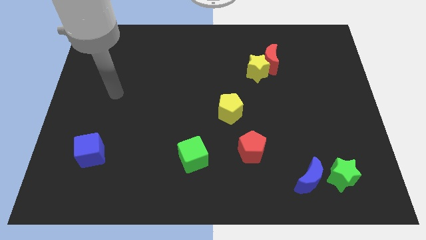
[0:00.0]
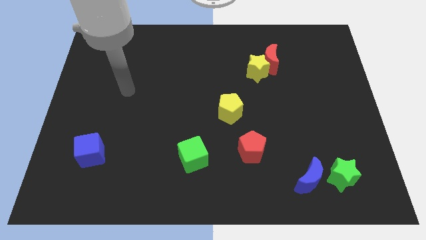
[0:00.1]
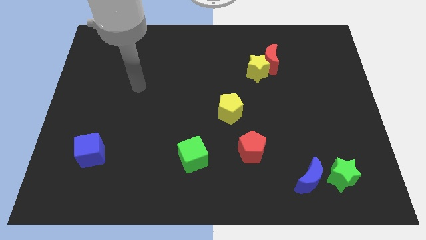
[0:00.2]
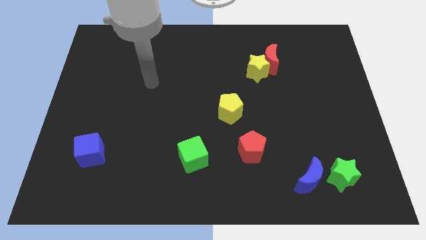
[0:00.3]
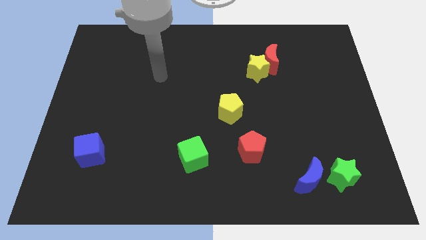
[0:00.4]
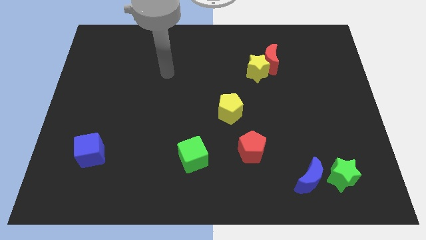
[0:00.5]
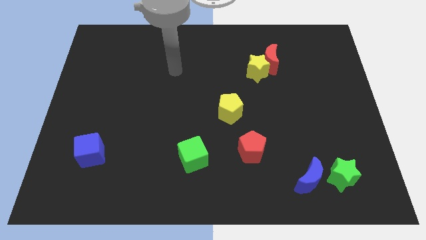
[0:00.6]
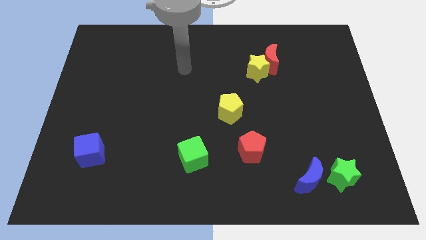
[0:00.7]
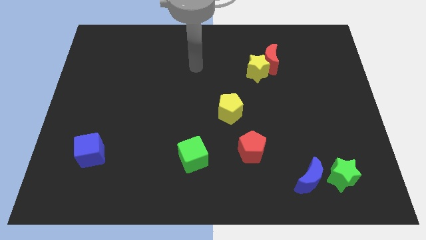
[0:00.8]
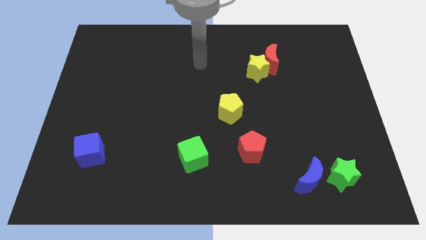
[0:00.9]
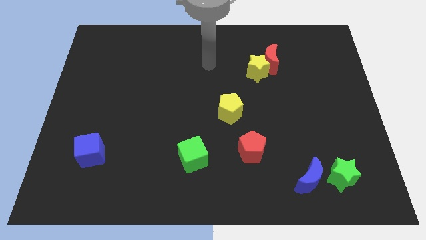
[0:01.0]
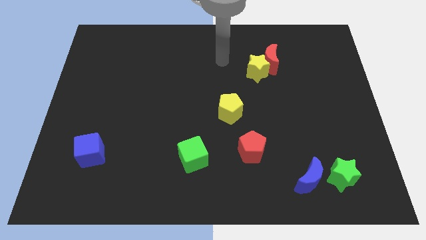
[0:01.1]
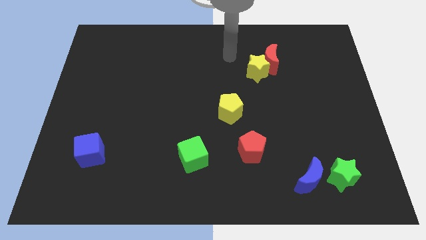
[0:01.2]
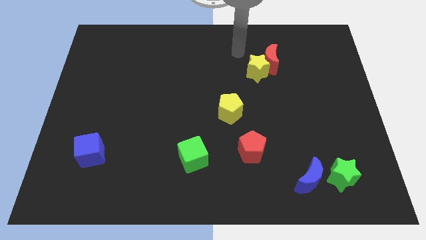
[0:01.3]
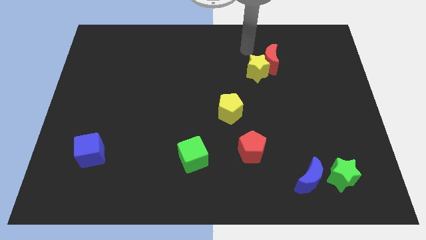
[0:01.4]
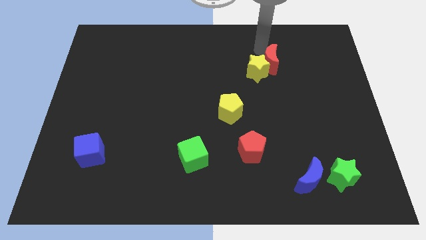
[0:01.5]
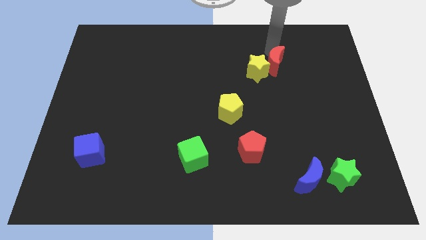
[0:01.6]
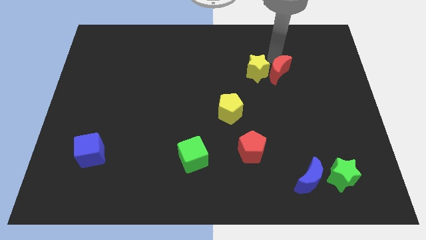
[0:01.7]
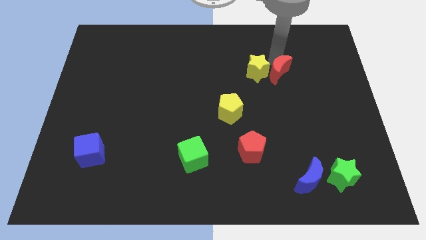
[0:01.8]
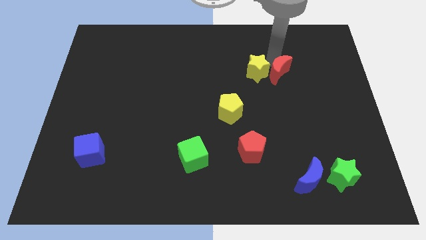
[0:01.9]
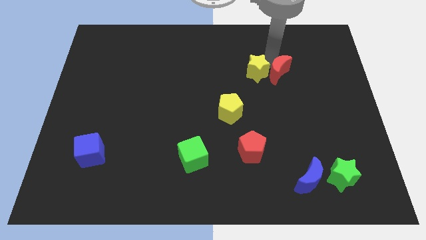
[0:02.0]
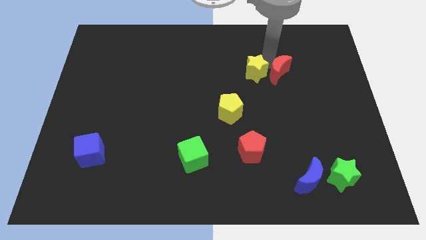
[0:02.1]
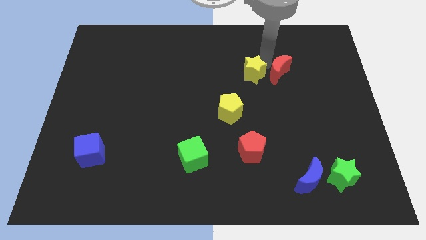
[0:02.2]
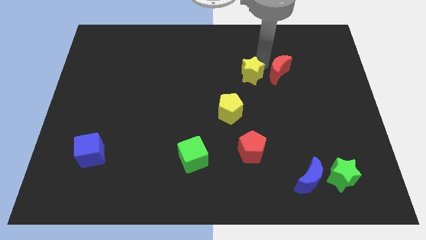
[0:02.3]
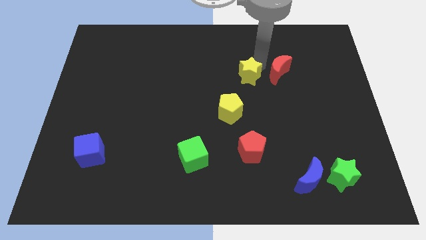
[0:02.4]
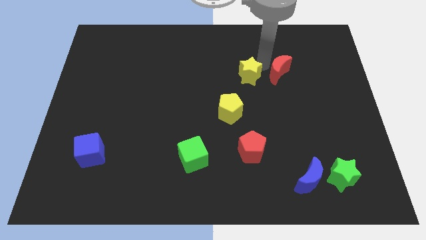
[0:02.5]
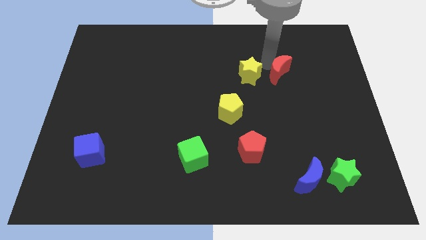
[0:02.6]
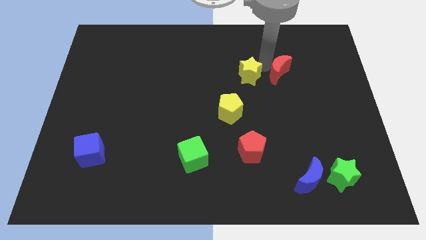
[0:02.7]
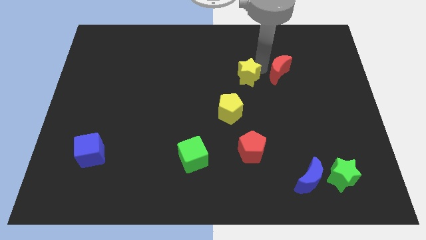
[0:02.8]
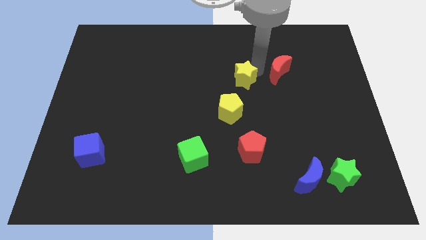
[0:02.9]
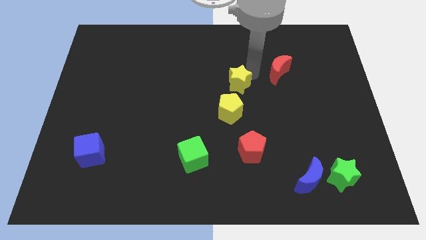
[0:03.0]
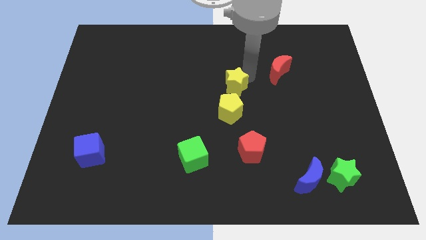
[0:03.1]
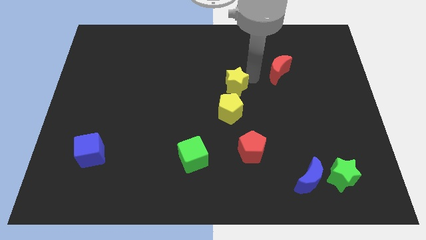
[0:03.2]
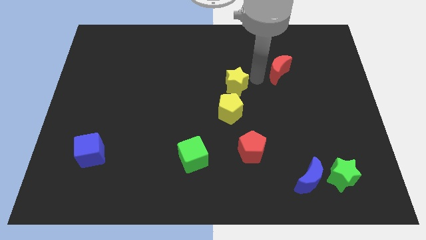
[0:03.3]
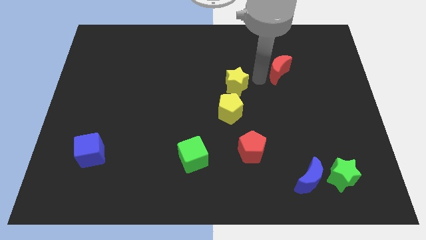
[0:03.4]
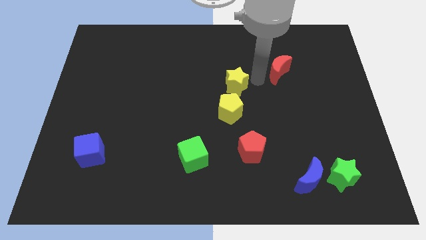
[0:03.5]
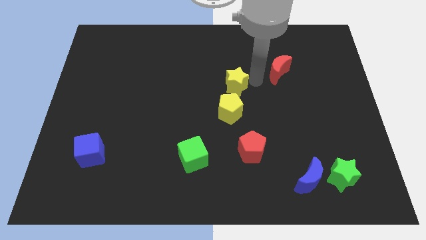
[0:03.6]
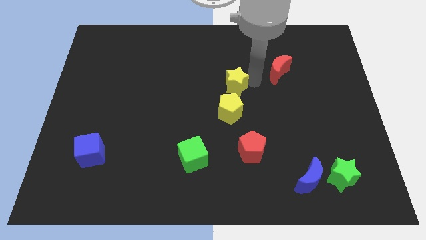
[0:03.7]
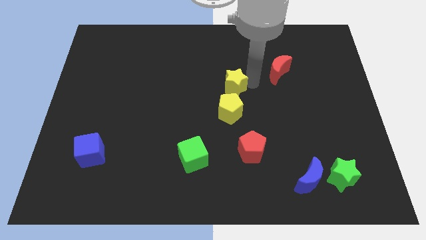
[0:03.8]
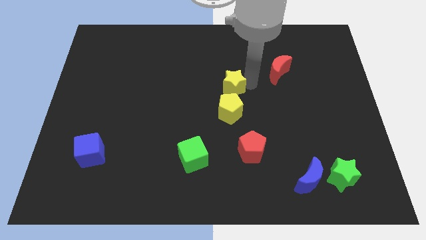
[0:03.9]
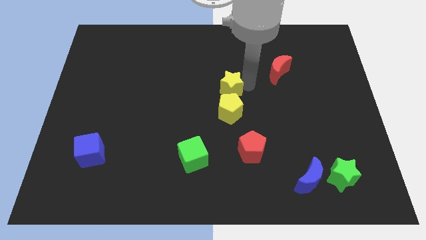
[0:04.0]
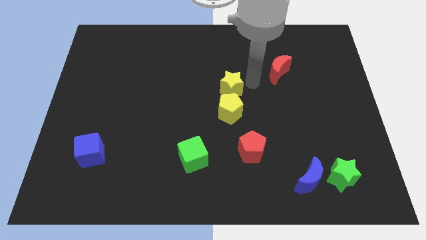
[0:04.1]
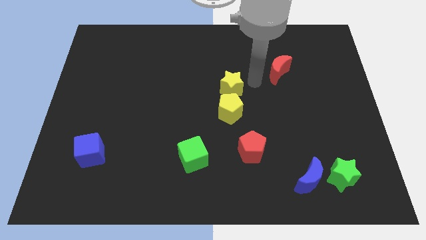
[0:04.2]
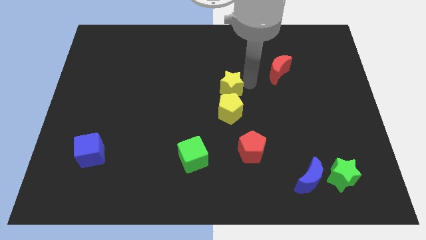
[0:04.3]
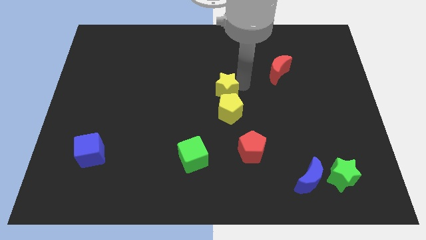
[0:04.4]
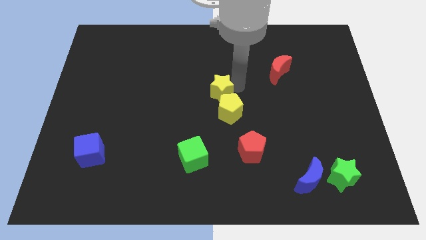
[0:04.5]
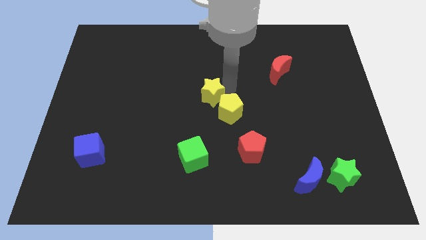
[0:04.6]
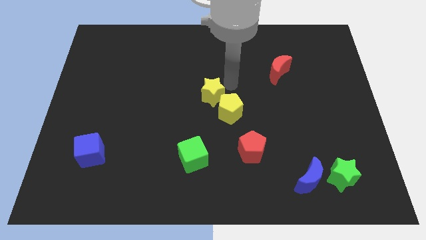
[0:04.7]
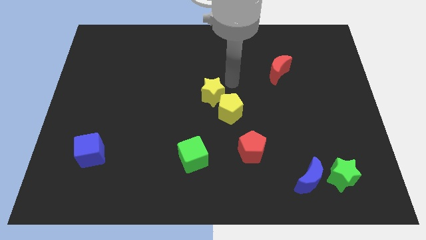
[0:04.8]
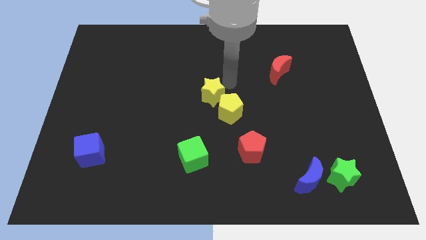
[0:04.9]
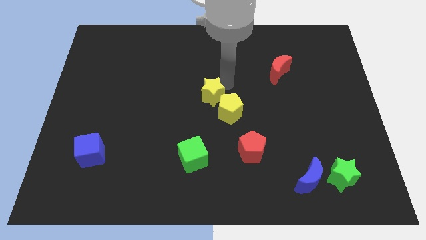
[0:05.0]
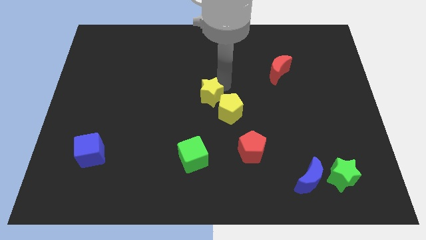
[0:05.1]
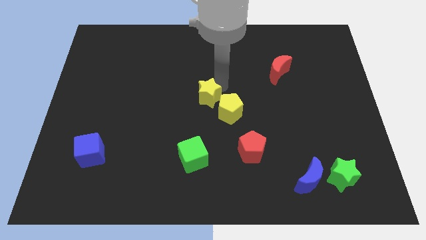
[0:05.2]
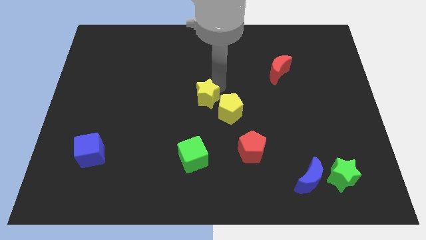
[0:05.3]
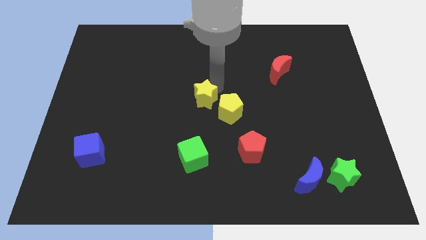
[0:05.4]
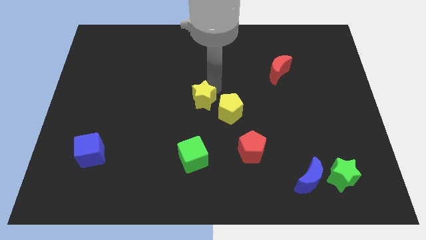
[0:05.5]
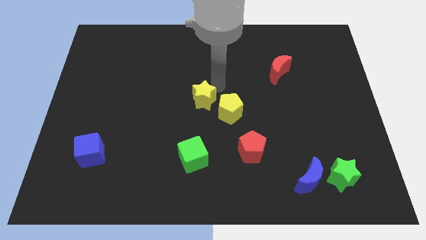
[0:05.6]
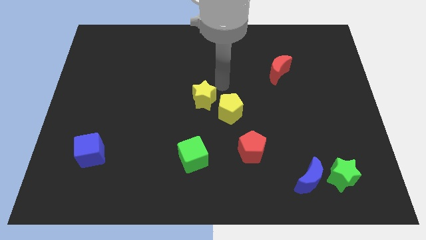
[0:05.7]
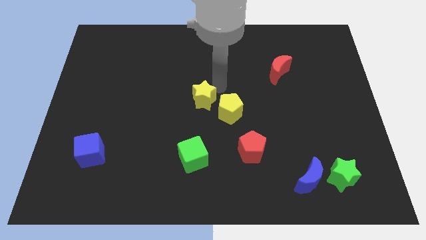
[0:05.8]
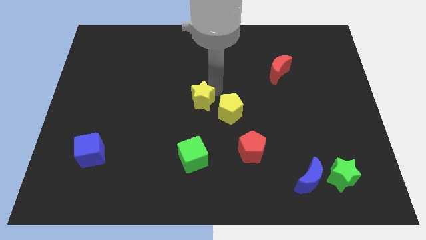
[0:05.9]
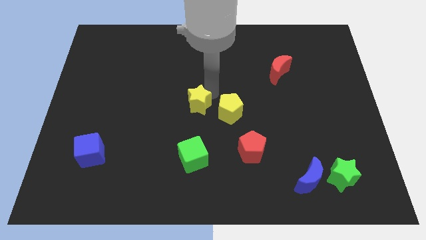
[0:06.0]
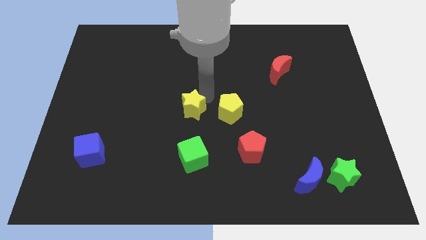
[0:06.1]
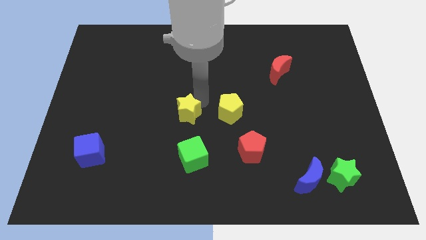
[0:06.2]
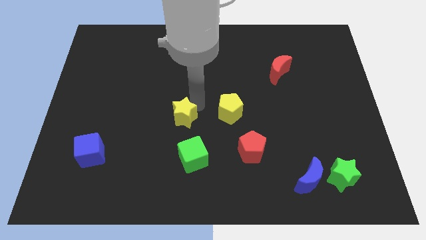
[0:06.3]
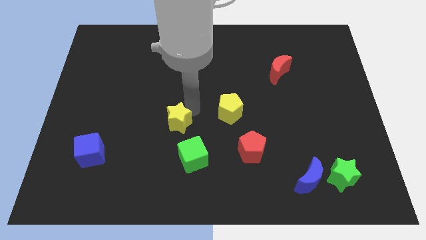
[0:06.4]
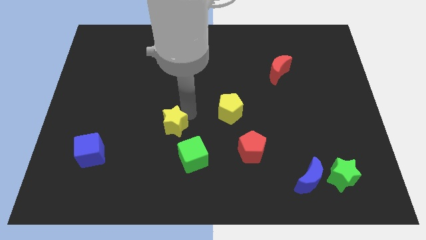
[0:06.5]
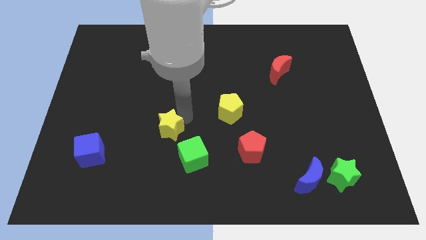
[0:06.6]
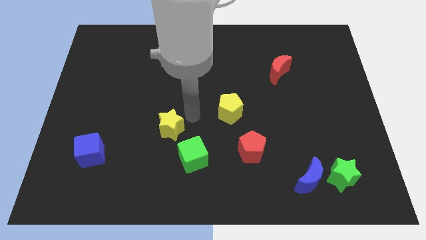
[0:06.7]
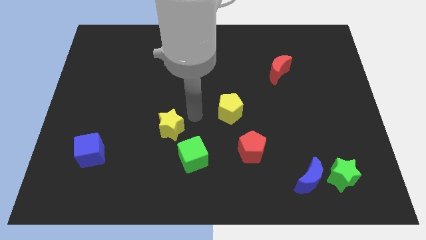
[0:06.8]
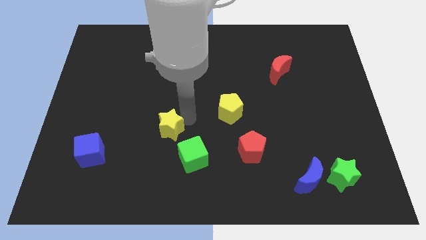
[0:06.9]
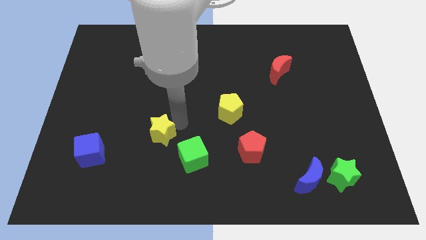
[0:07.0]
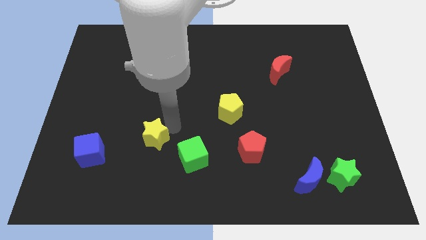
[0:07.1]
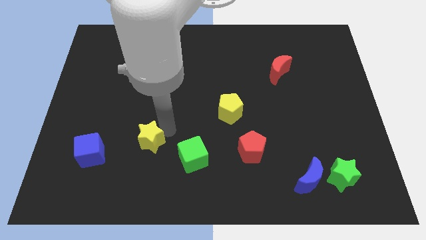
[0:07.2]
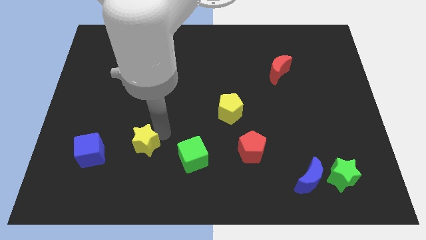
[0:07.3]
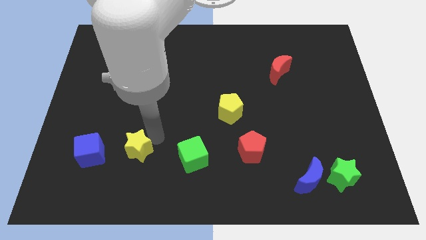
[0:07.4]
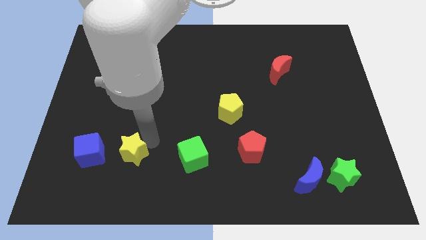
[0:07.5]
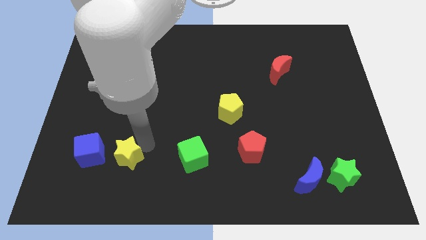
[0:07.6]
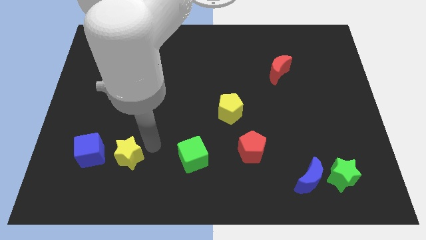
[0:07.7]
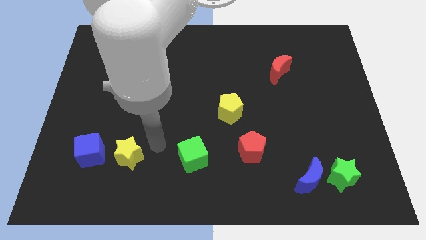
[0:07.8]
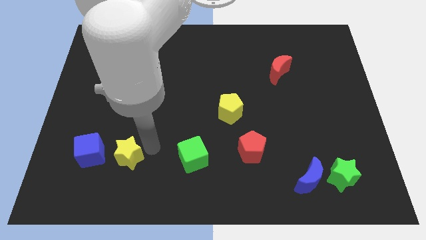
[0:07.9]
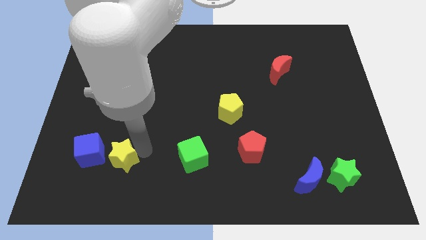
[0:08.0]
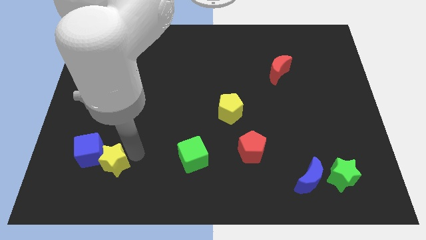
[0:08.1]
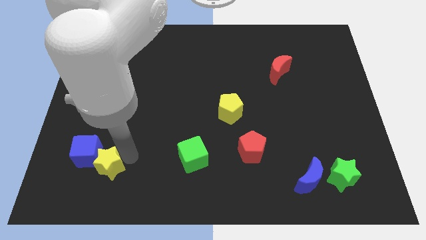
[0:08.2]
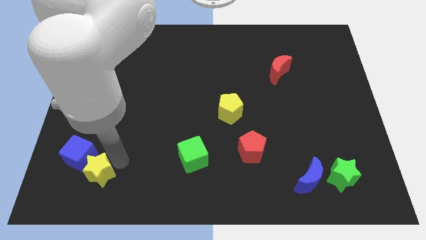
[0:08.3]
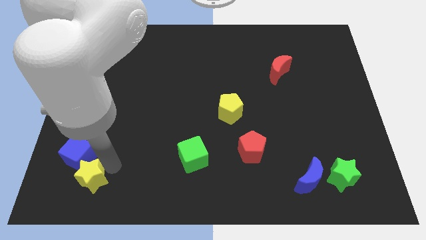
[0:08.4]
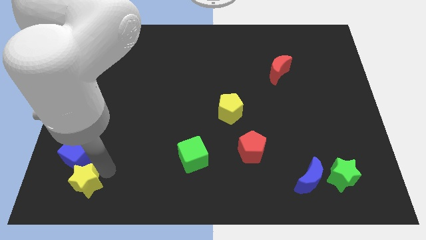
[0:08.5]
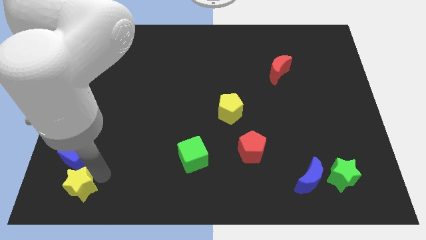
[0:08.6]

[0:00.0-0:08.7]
put the yellow star to the bottom left corner
